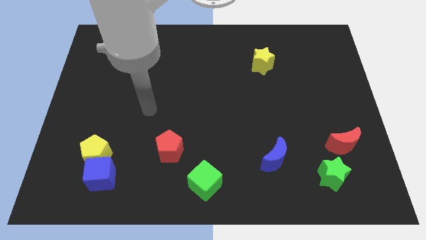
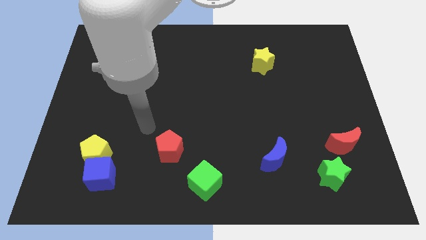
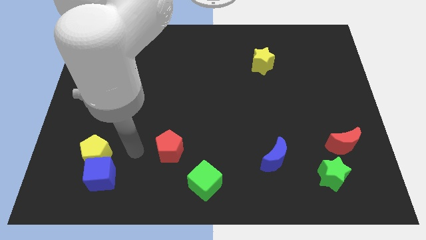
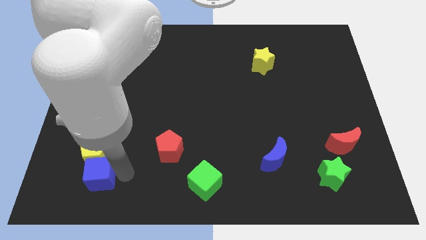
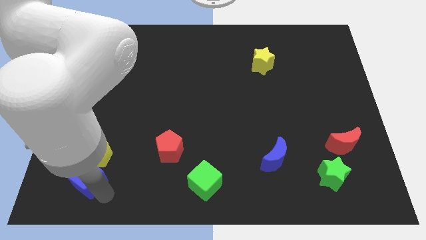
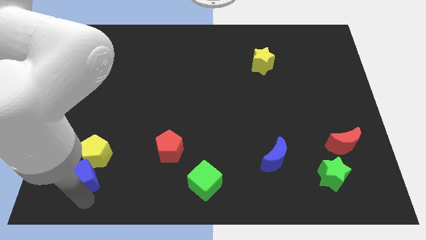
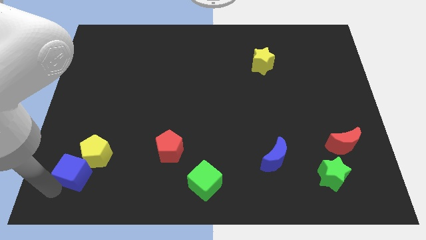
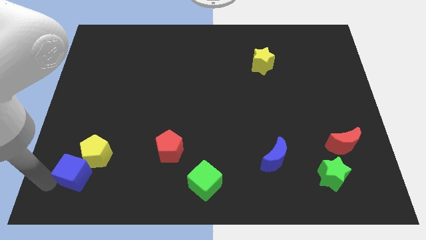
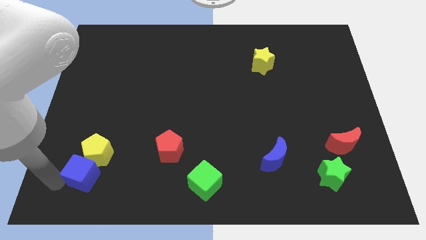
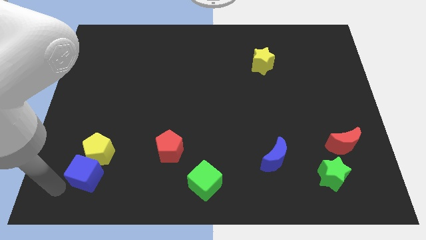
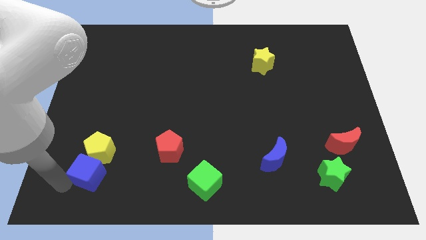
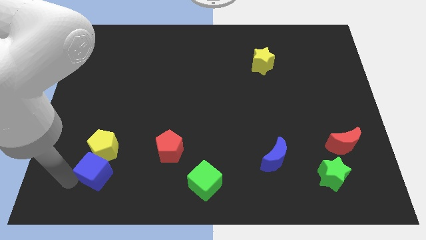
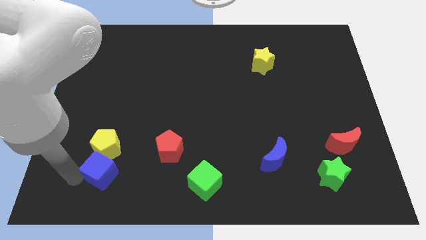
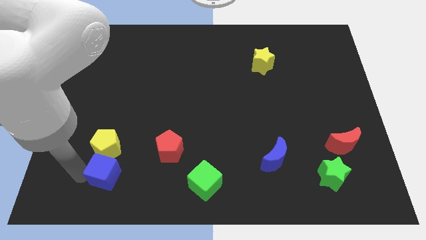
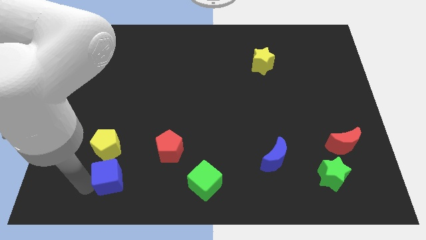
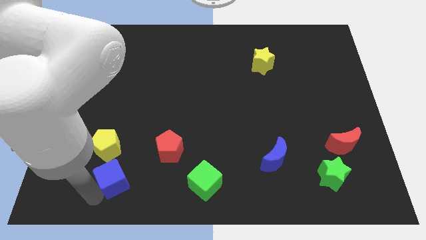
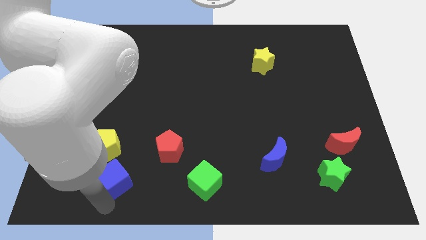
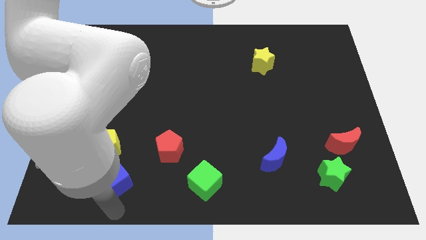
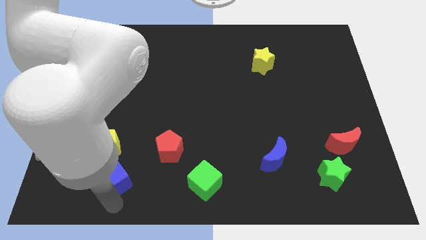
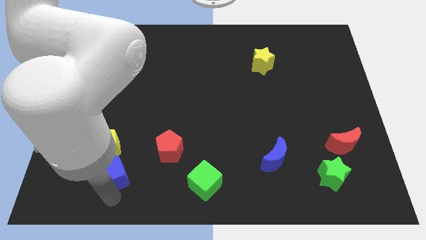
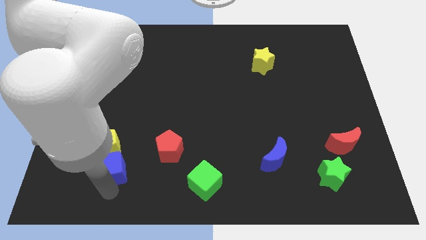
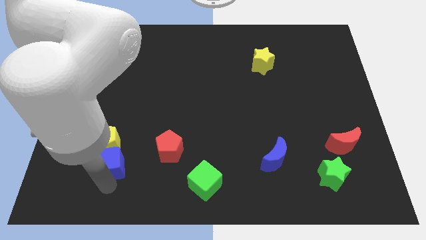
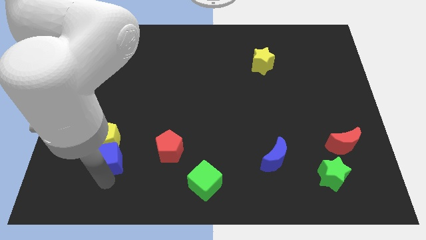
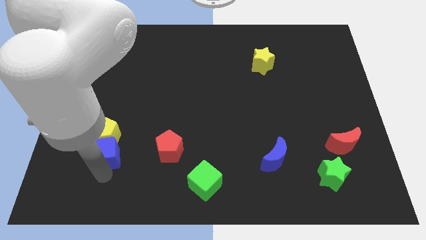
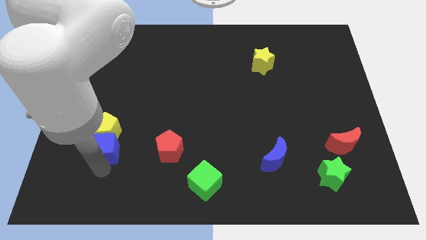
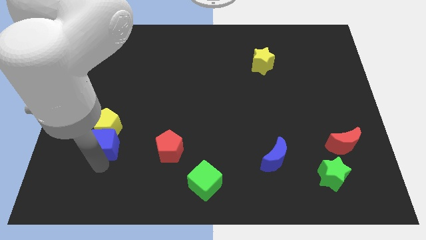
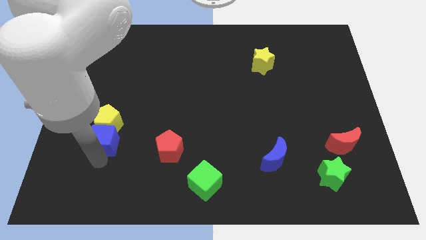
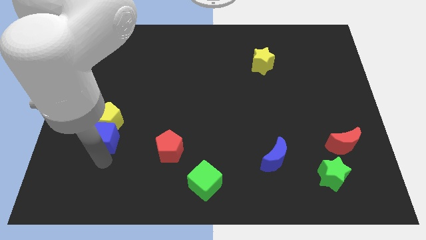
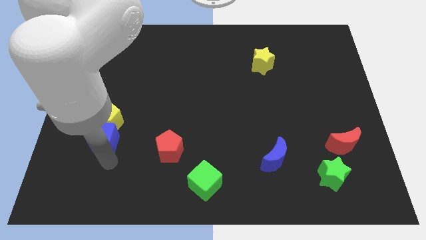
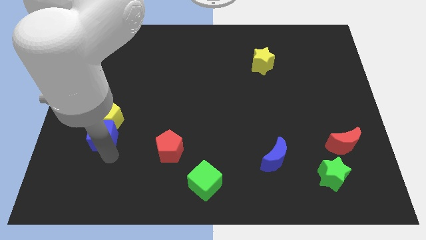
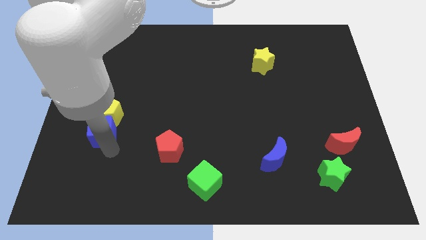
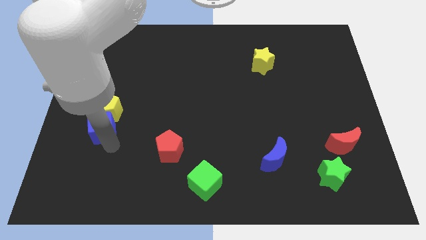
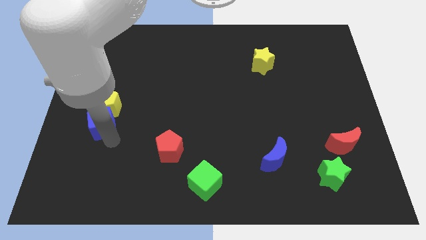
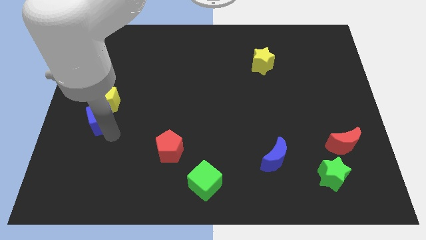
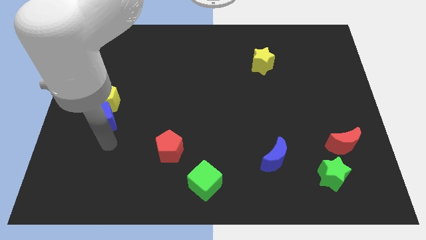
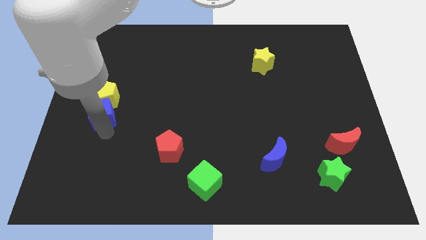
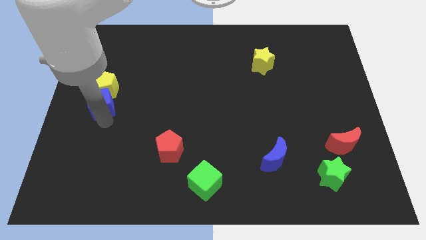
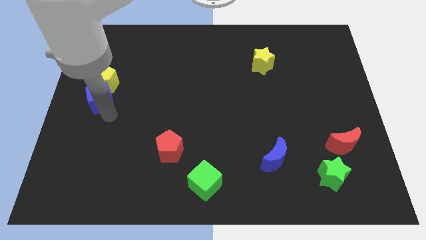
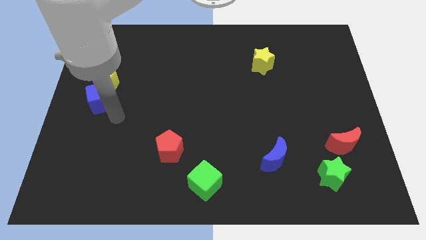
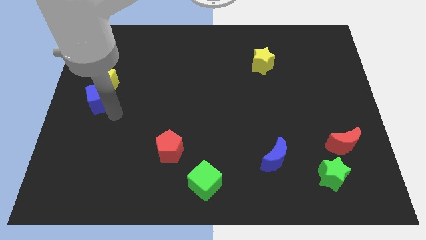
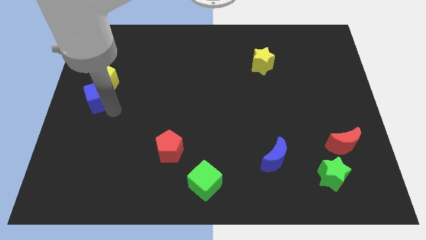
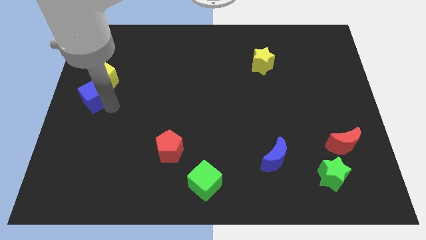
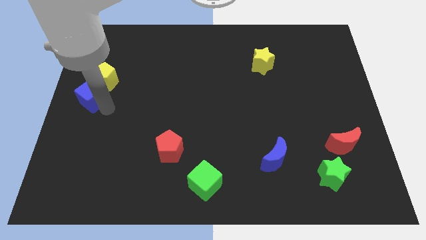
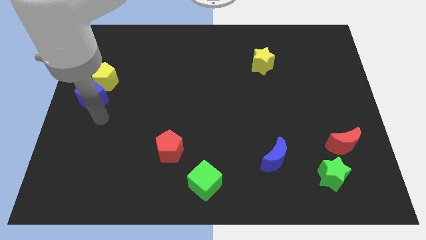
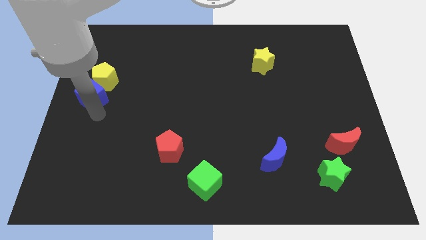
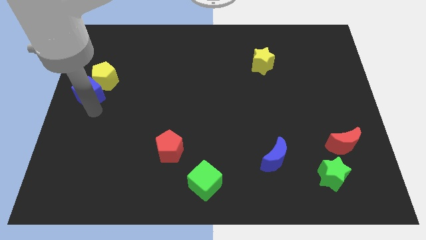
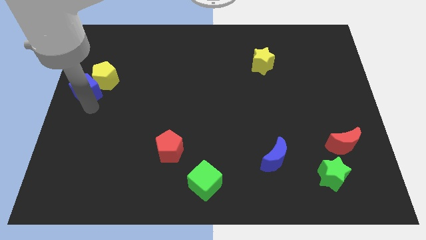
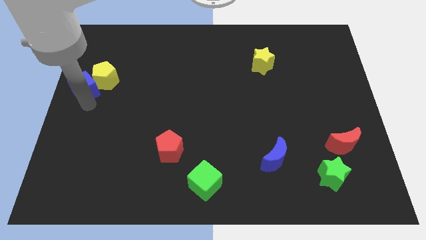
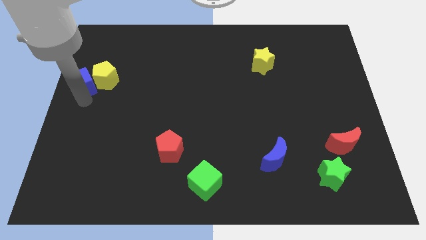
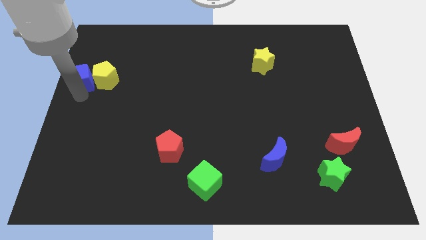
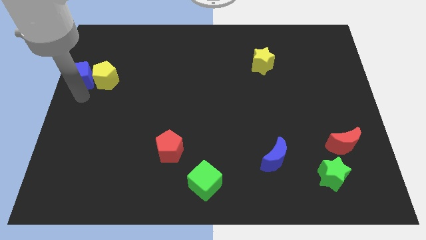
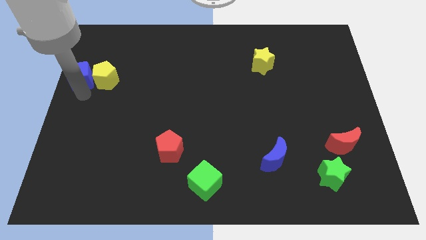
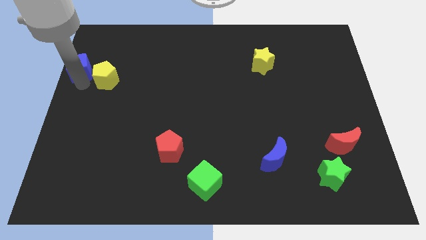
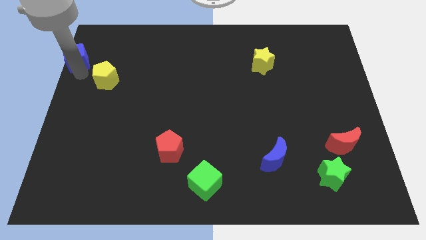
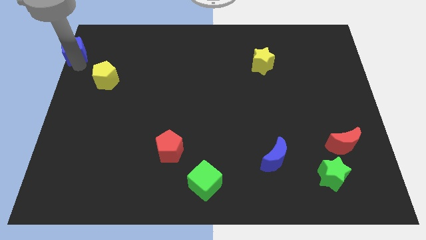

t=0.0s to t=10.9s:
put the blue cube to the top left corner
